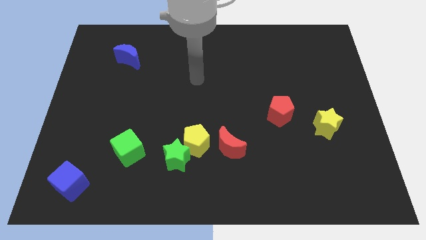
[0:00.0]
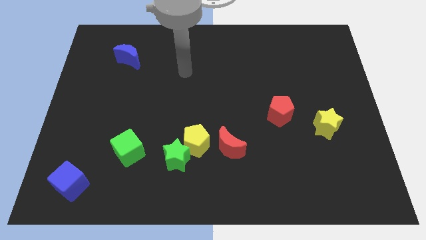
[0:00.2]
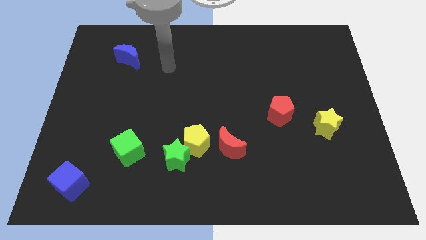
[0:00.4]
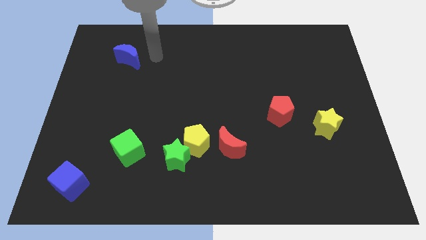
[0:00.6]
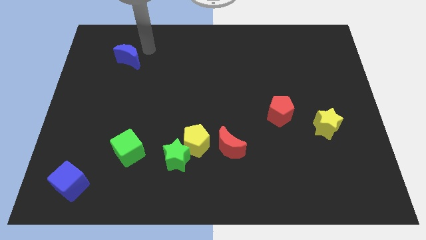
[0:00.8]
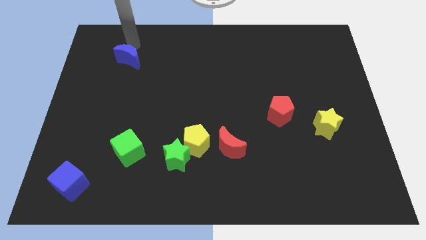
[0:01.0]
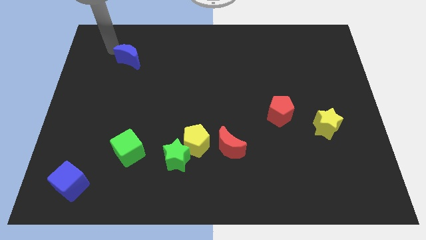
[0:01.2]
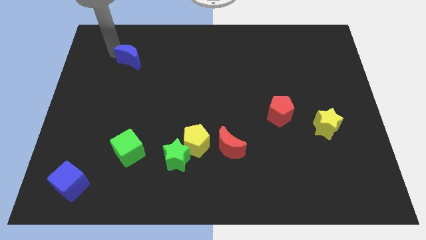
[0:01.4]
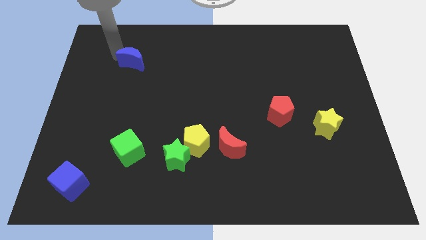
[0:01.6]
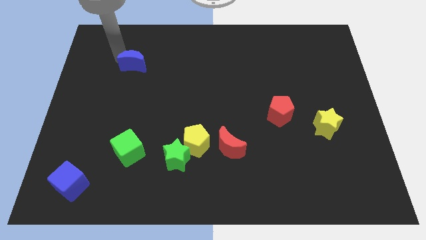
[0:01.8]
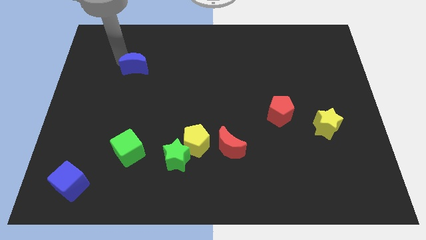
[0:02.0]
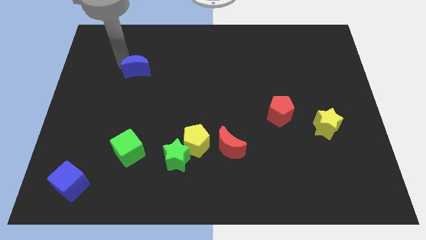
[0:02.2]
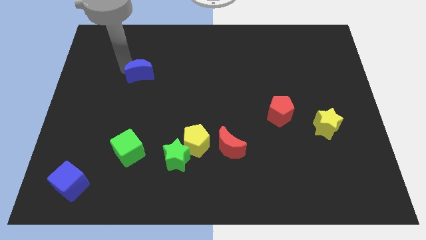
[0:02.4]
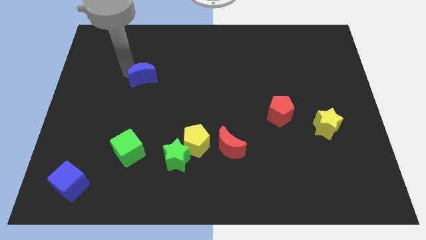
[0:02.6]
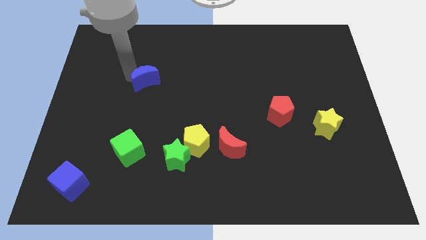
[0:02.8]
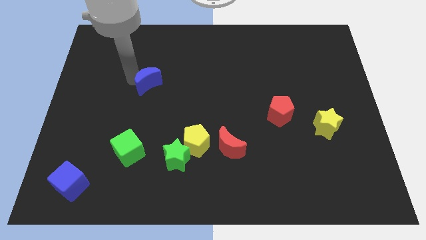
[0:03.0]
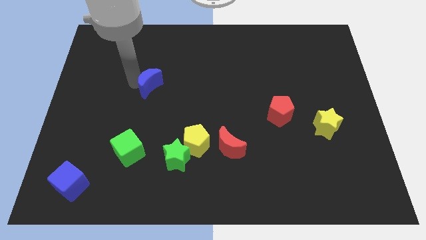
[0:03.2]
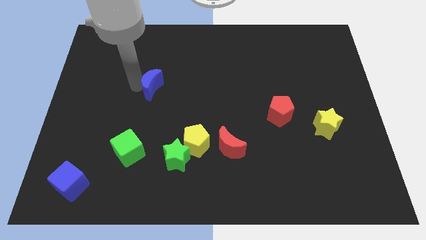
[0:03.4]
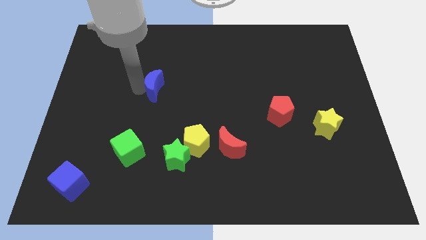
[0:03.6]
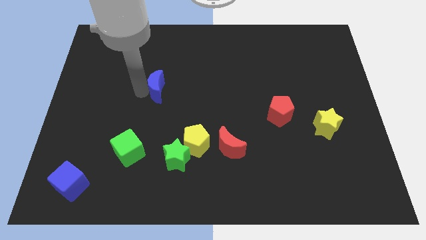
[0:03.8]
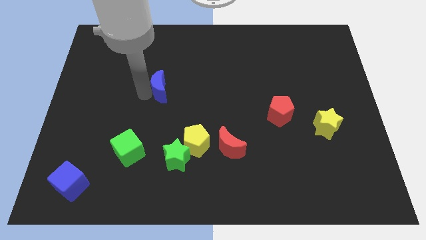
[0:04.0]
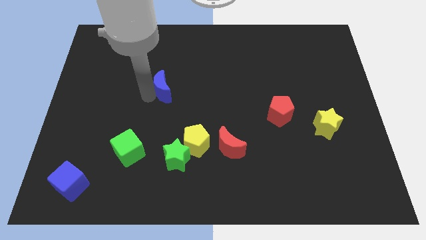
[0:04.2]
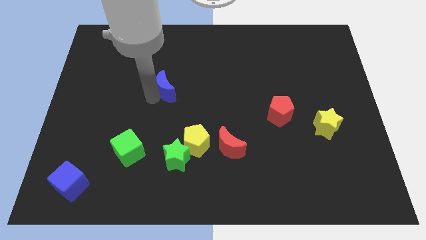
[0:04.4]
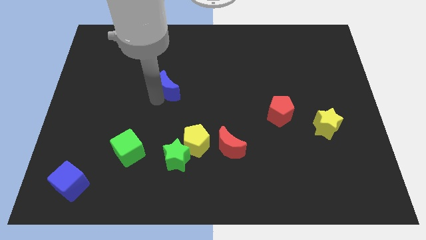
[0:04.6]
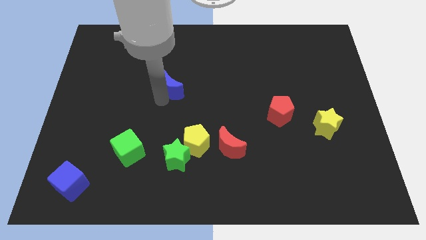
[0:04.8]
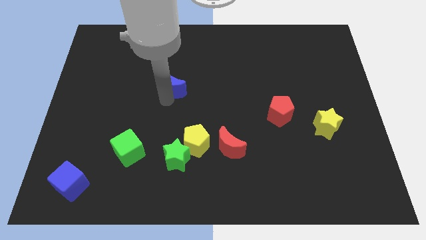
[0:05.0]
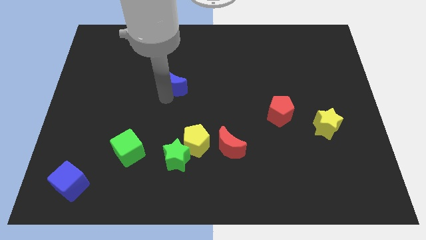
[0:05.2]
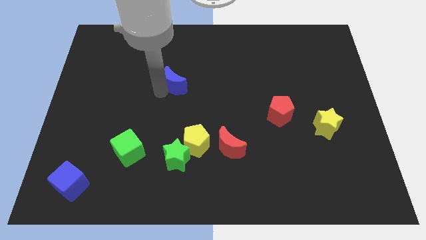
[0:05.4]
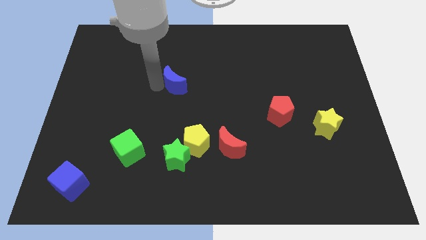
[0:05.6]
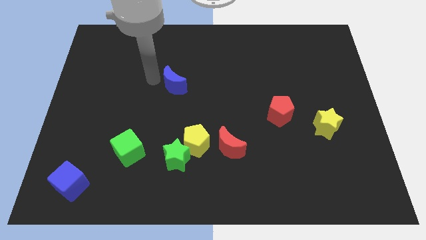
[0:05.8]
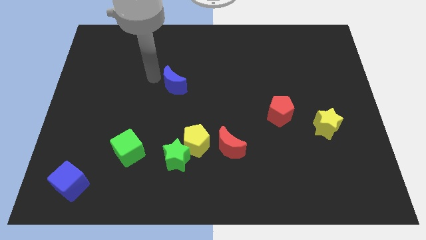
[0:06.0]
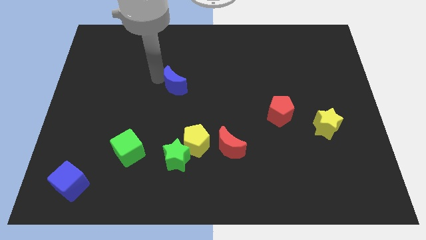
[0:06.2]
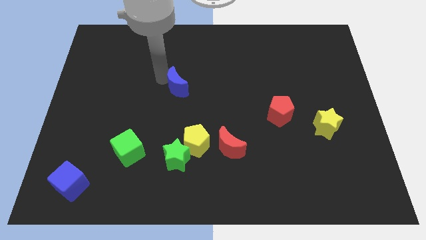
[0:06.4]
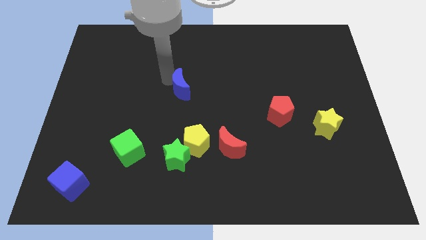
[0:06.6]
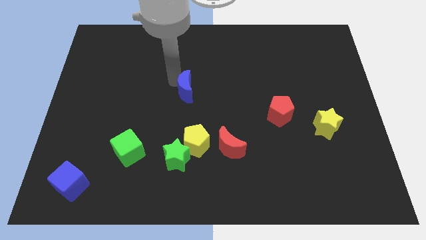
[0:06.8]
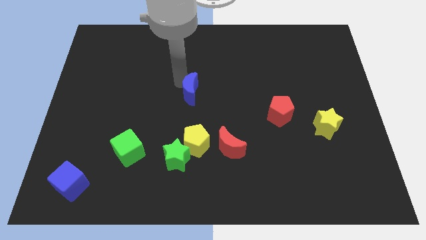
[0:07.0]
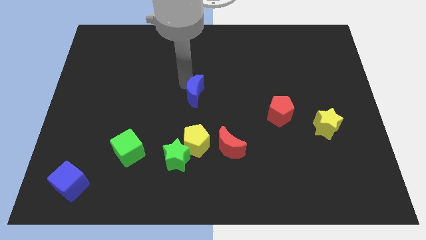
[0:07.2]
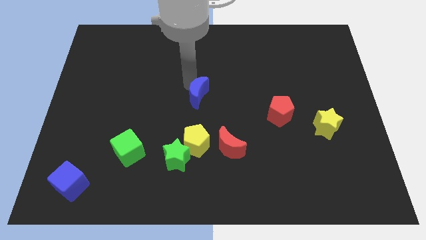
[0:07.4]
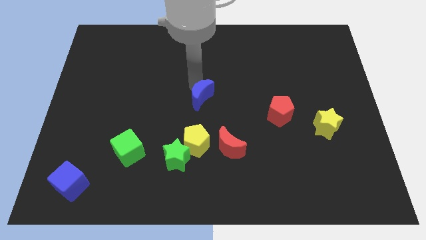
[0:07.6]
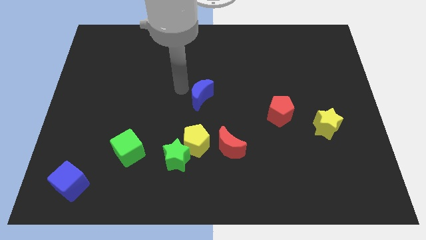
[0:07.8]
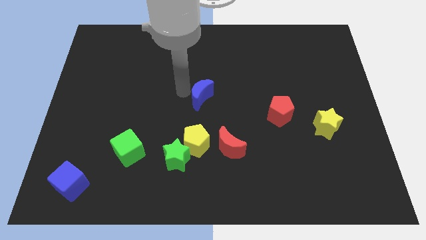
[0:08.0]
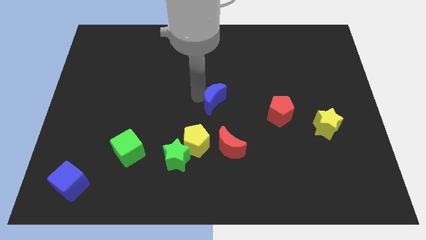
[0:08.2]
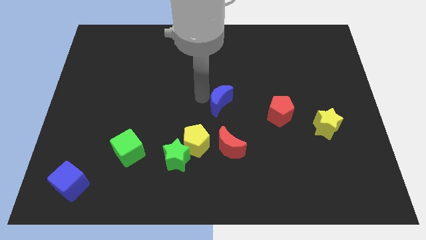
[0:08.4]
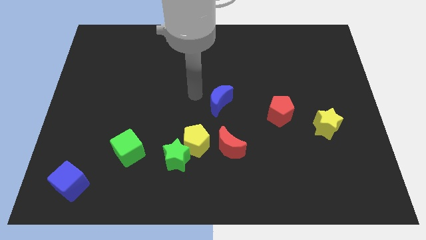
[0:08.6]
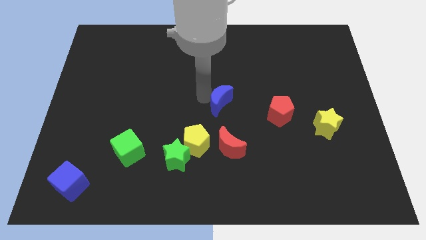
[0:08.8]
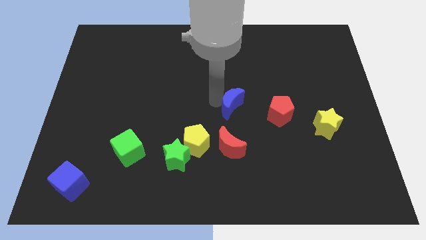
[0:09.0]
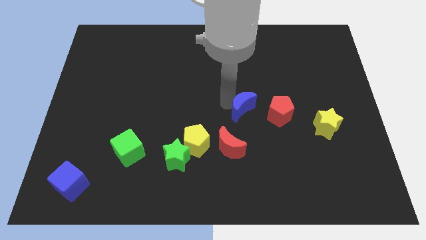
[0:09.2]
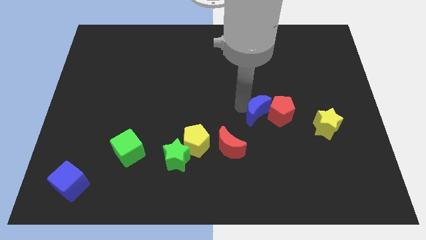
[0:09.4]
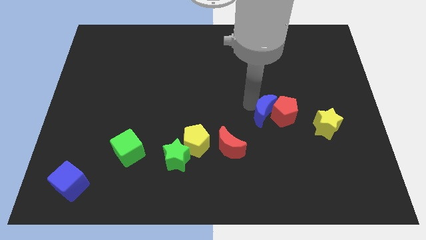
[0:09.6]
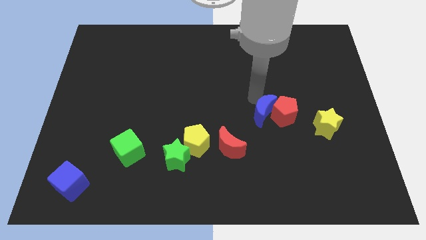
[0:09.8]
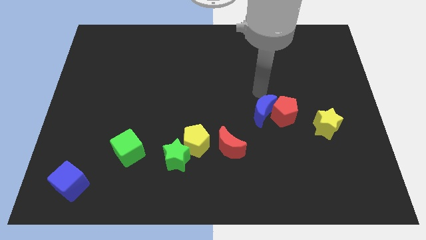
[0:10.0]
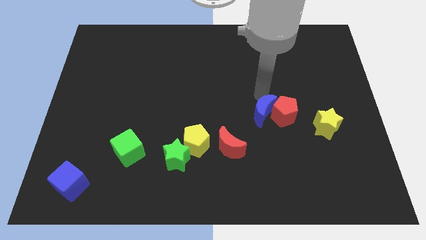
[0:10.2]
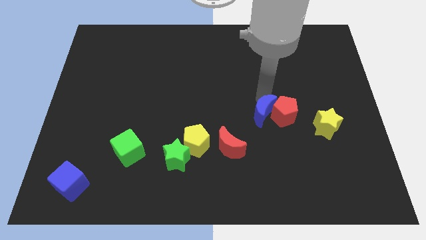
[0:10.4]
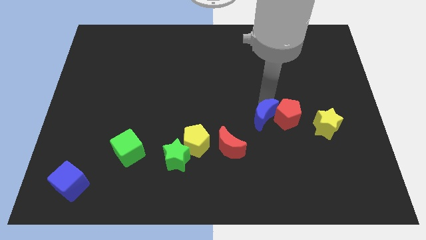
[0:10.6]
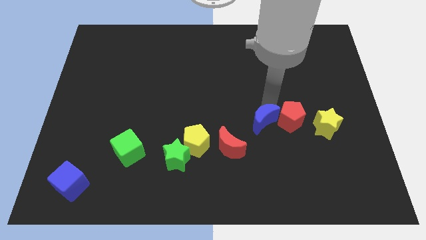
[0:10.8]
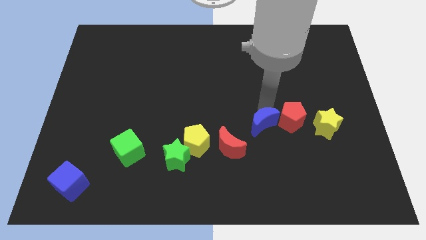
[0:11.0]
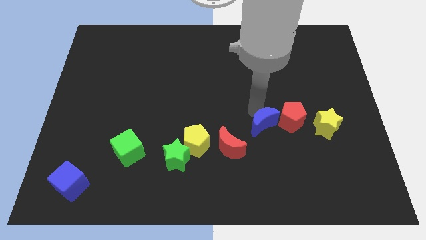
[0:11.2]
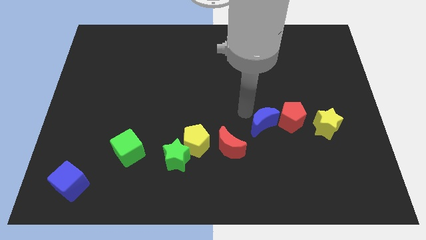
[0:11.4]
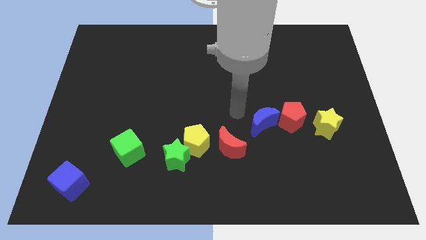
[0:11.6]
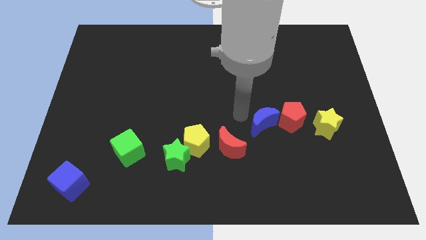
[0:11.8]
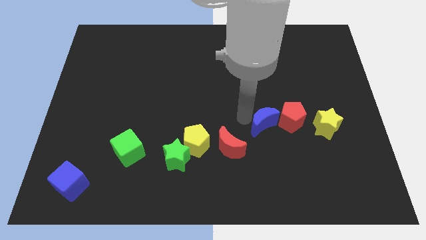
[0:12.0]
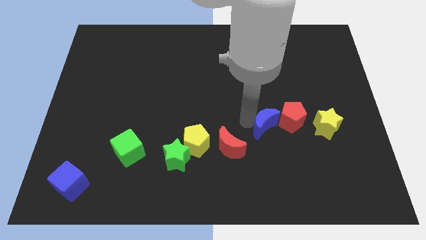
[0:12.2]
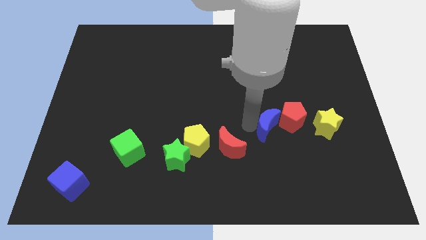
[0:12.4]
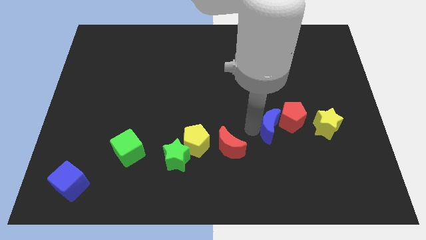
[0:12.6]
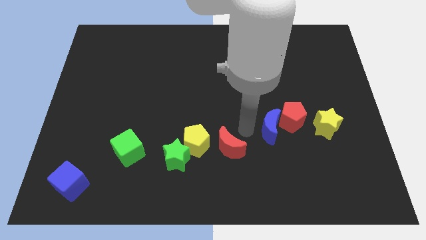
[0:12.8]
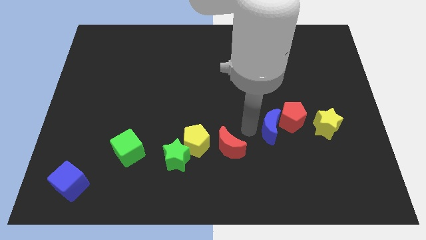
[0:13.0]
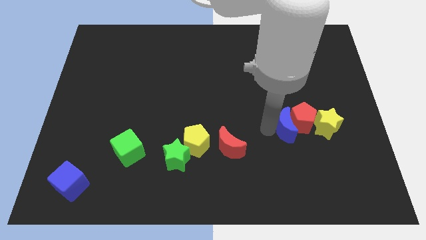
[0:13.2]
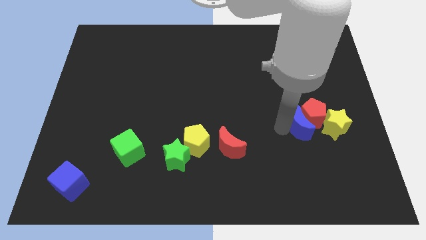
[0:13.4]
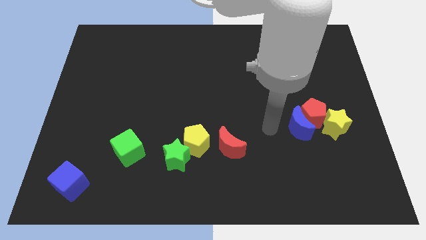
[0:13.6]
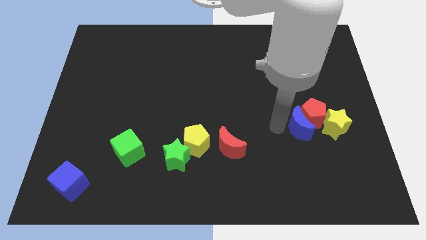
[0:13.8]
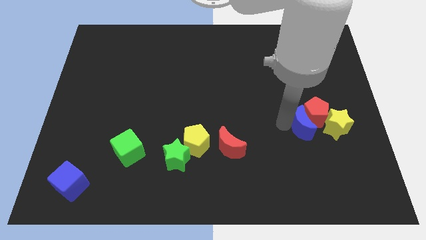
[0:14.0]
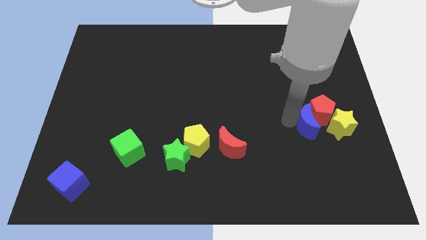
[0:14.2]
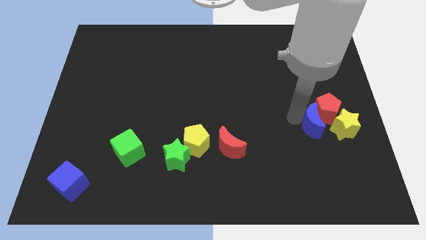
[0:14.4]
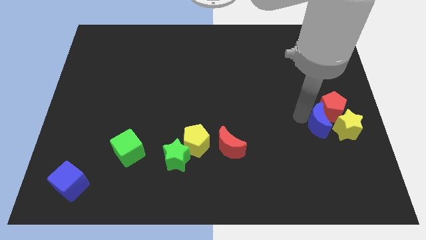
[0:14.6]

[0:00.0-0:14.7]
move the blue moon close to the yellow star
